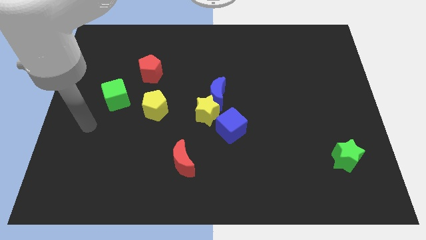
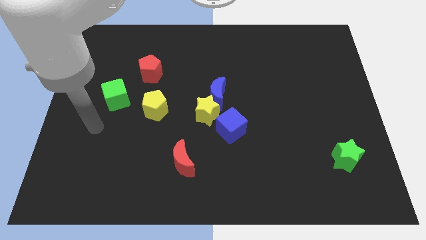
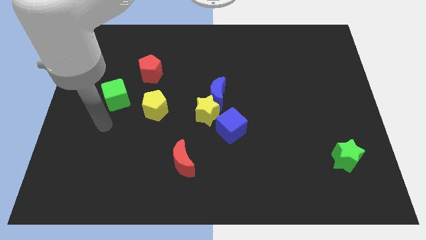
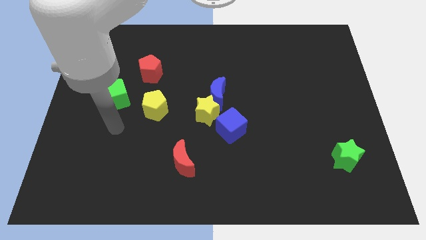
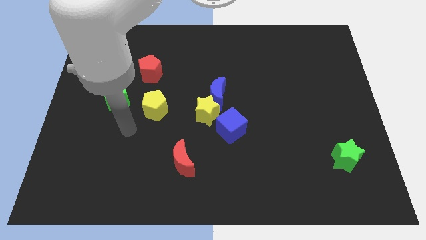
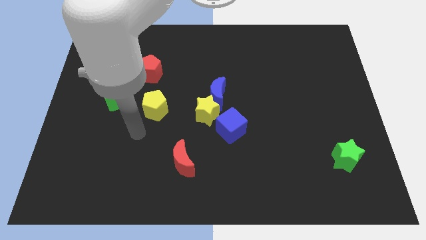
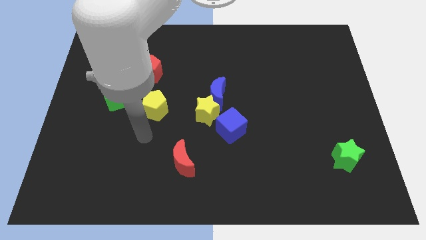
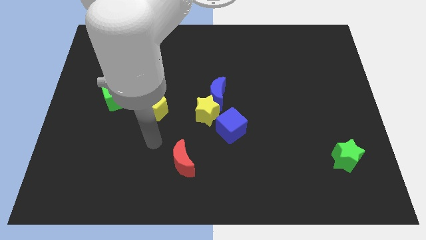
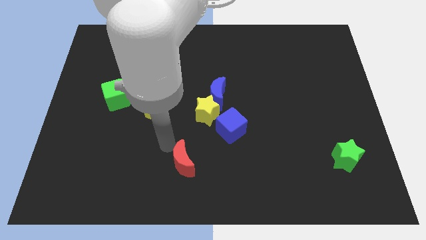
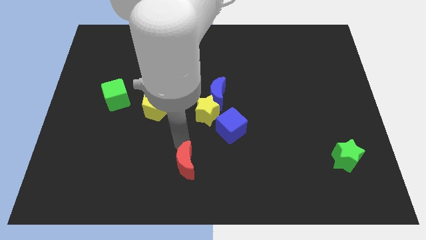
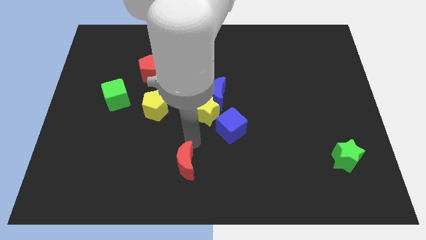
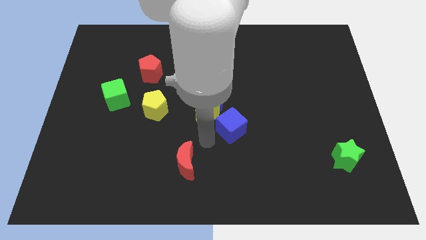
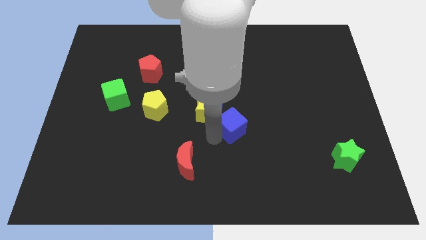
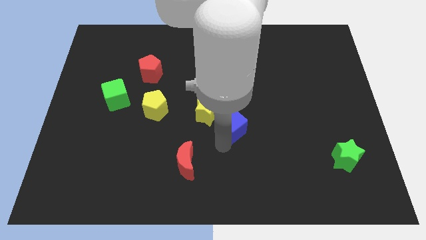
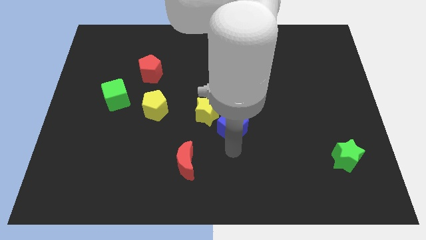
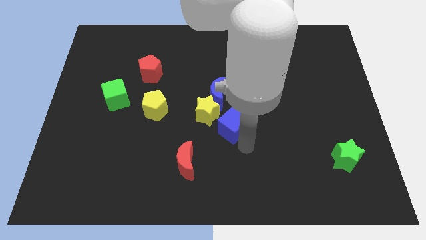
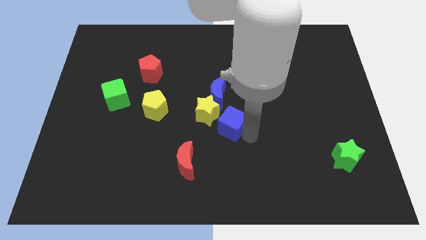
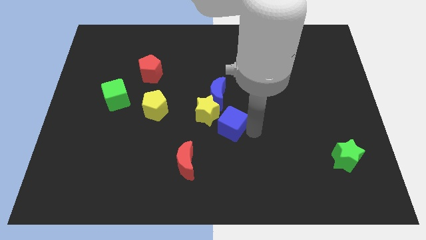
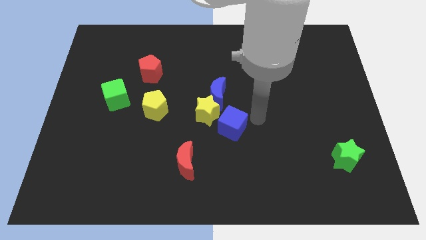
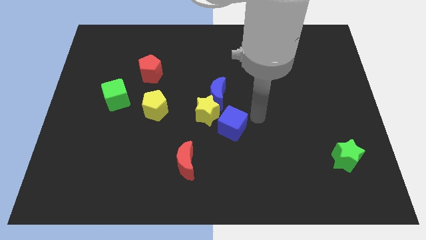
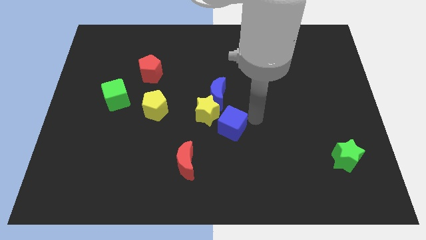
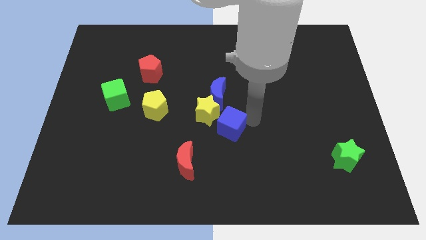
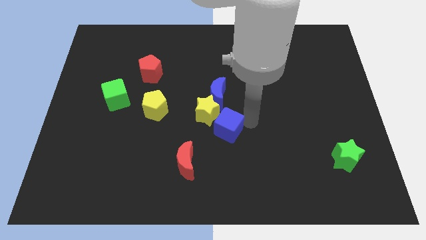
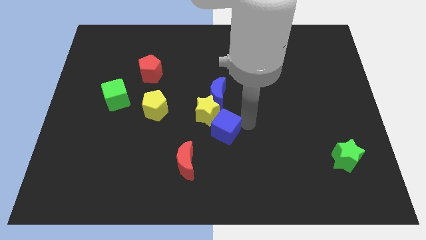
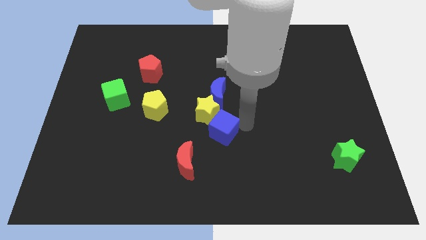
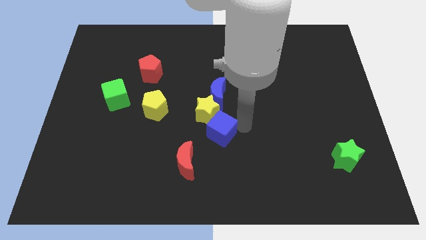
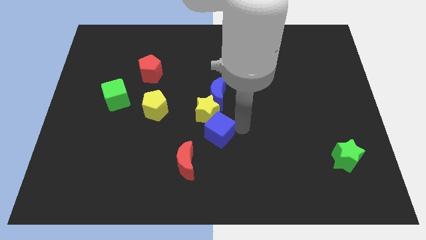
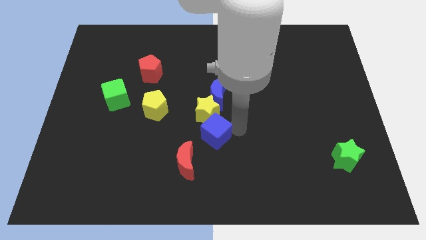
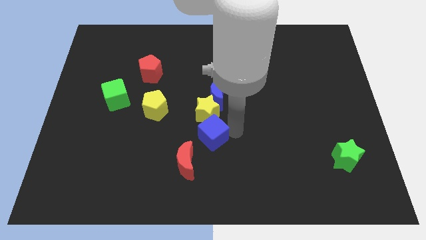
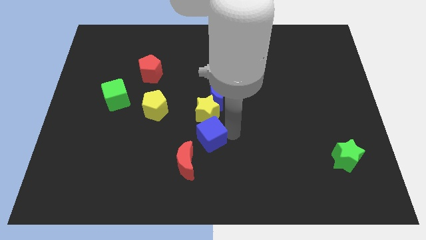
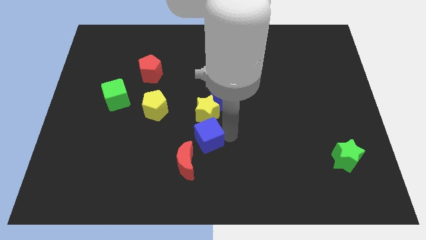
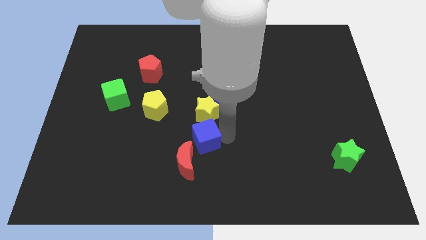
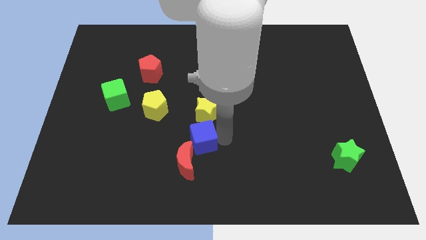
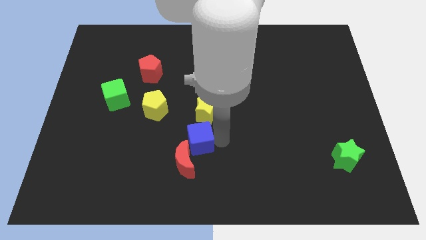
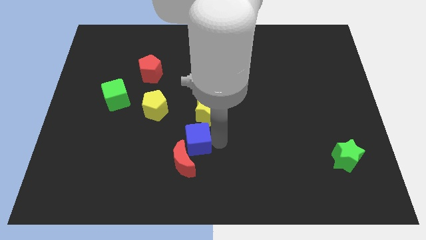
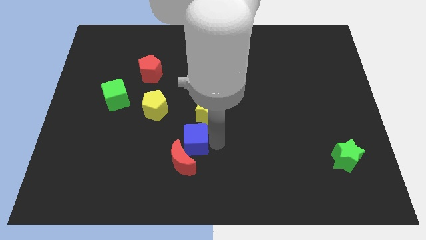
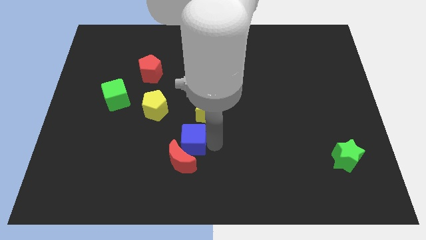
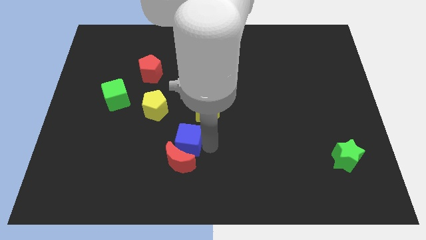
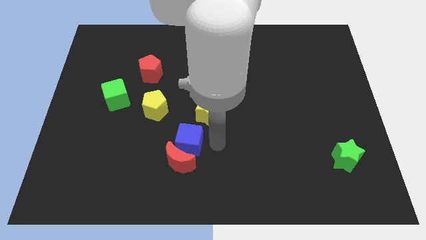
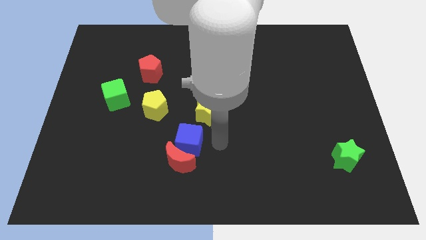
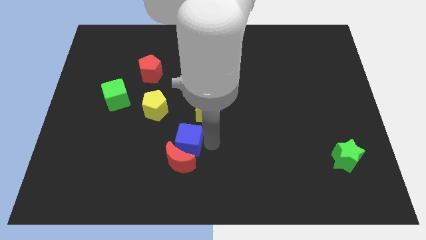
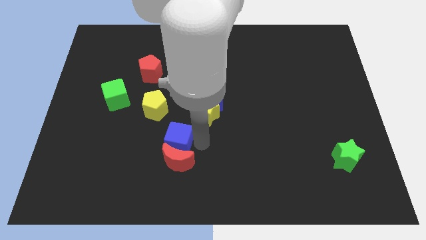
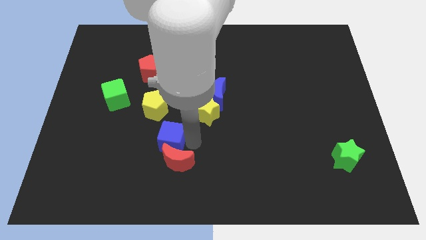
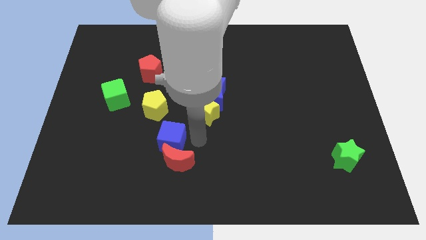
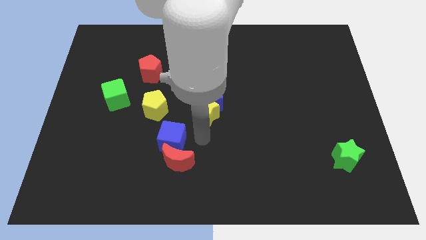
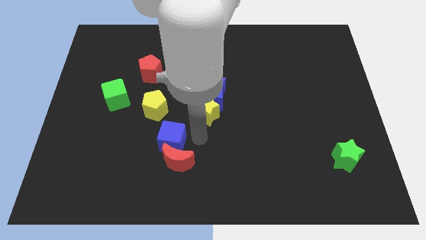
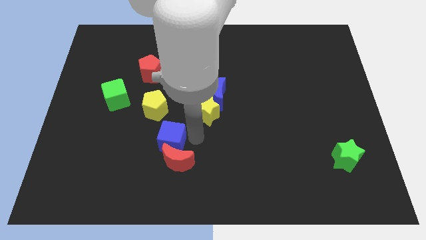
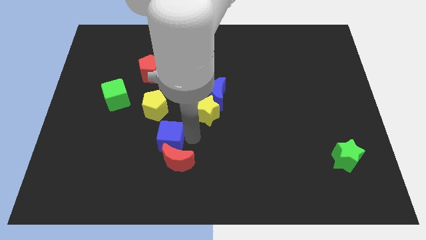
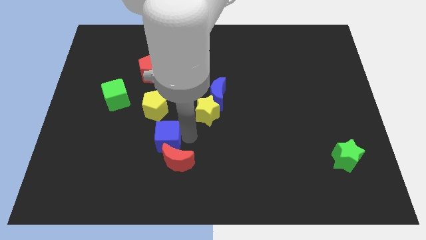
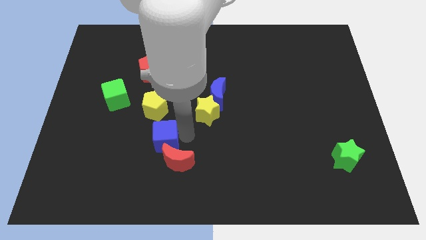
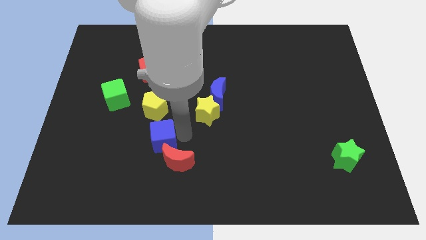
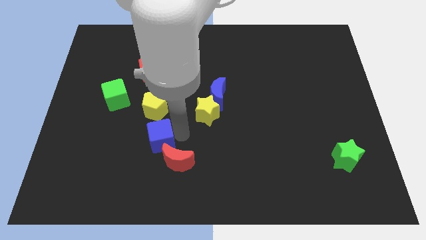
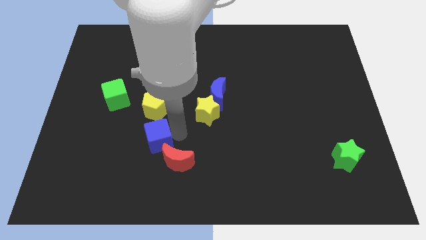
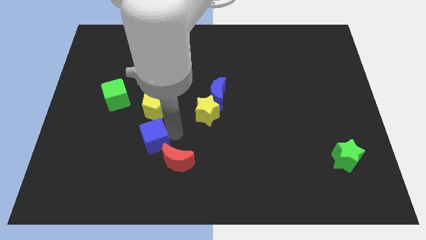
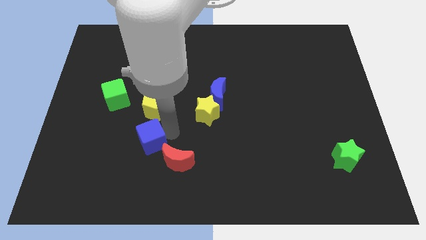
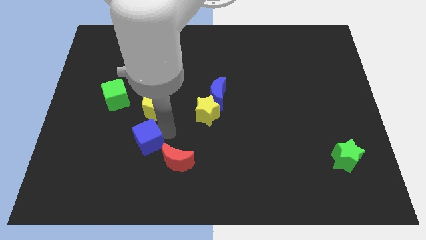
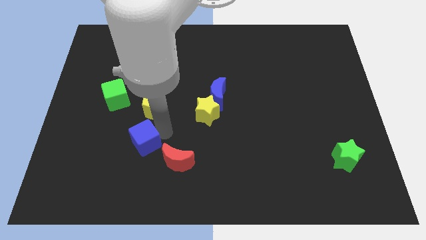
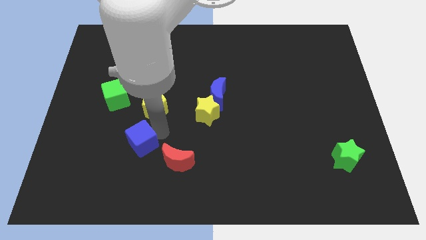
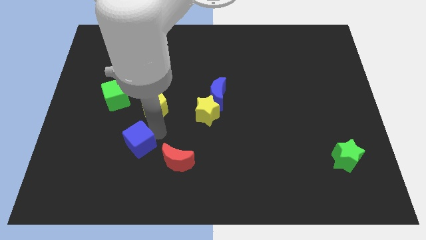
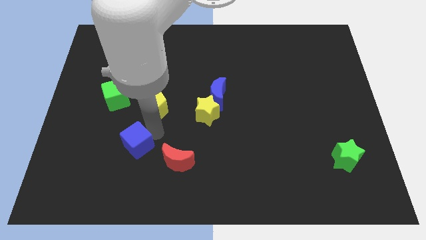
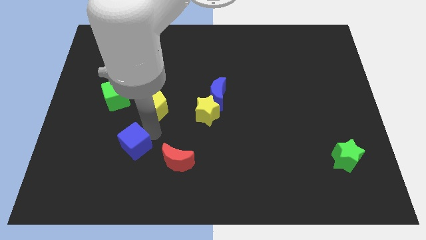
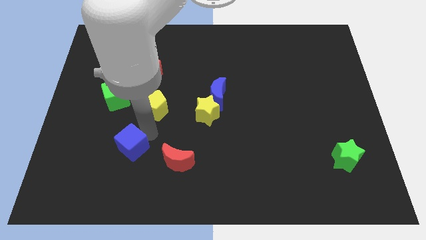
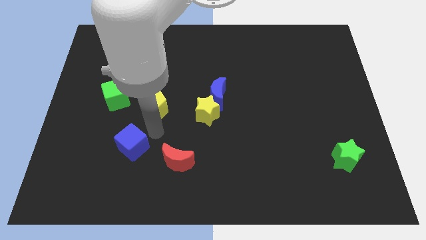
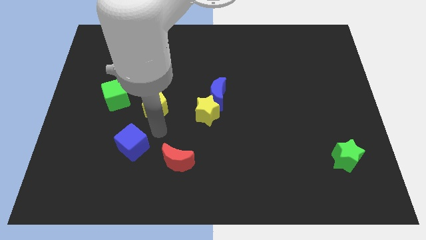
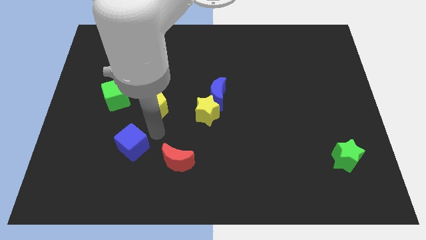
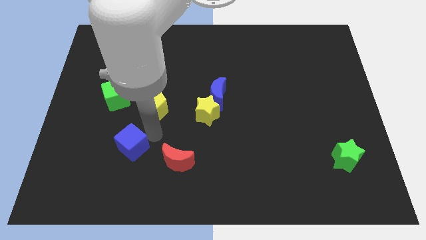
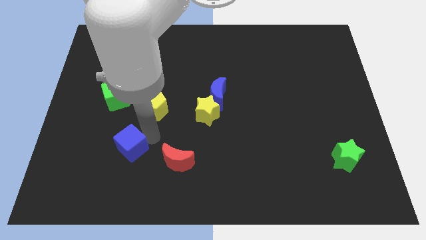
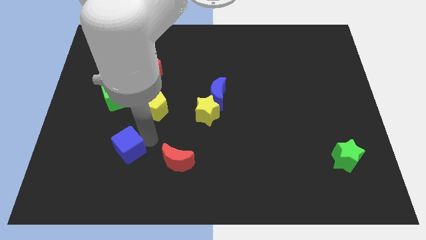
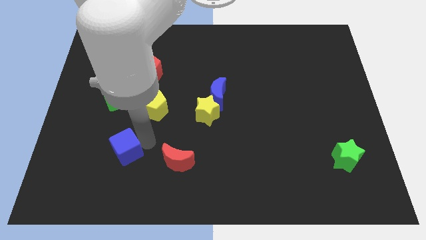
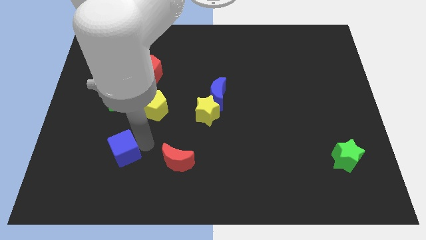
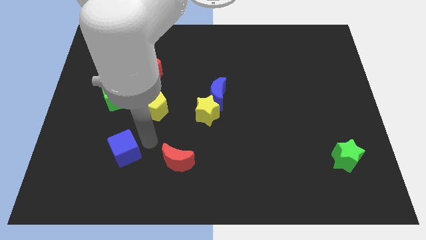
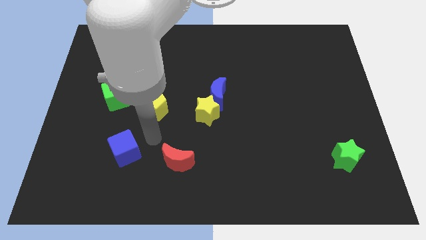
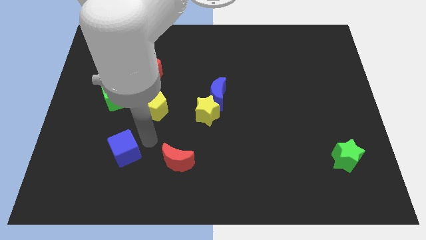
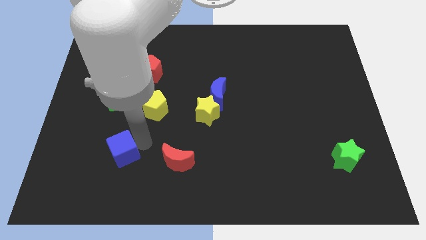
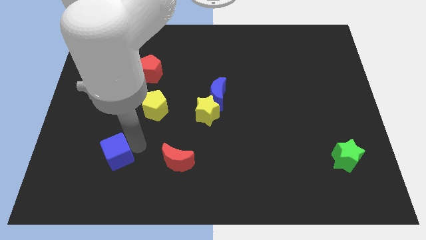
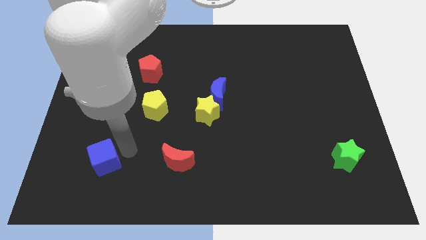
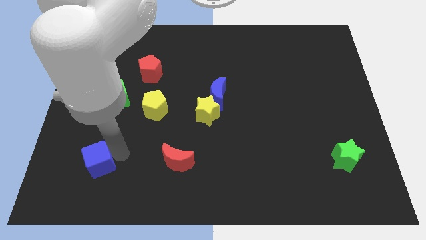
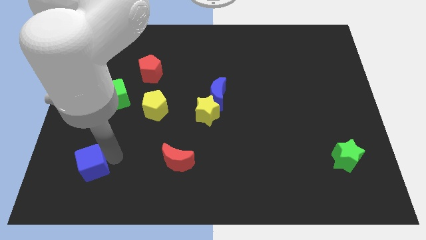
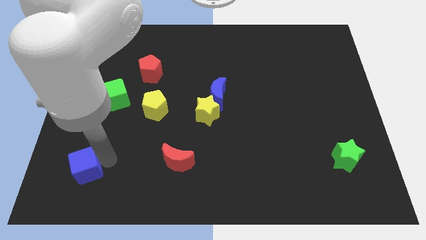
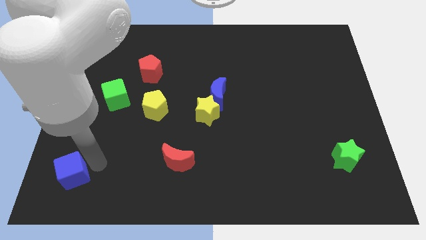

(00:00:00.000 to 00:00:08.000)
move the blue cube to the bottom left
